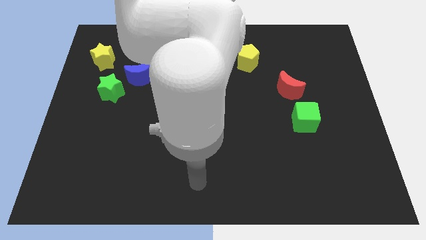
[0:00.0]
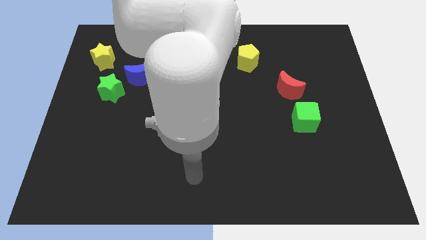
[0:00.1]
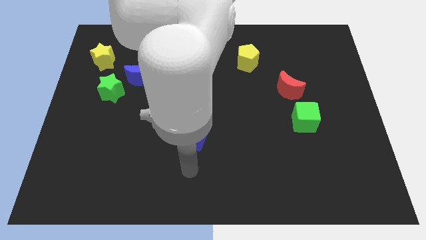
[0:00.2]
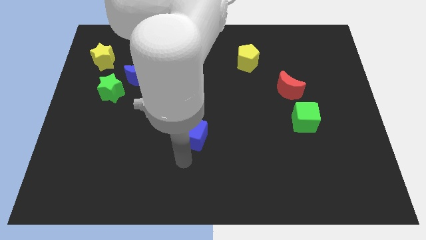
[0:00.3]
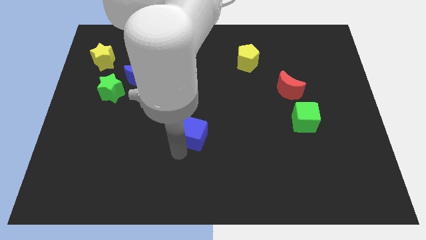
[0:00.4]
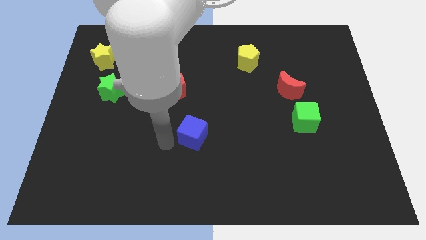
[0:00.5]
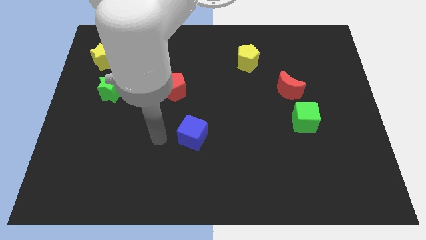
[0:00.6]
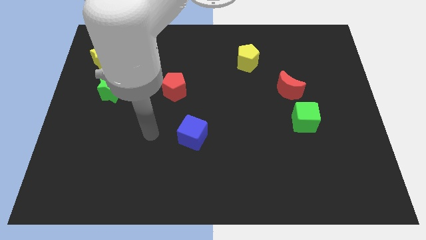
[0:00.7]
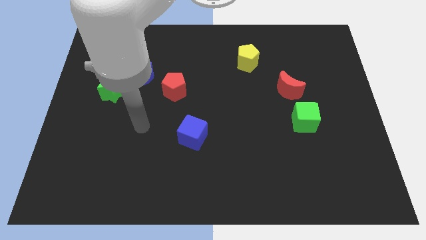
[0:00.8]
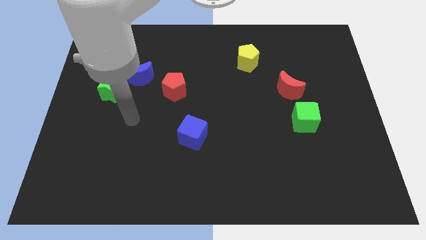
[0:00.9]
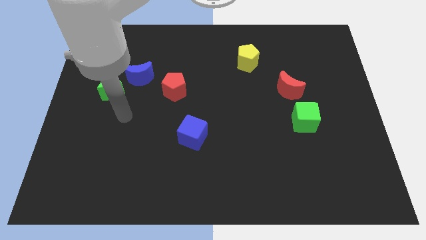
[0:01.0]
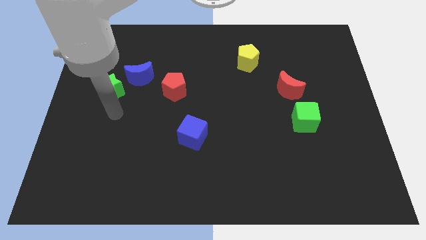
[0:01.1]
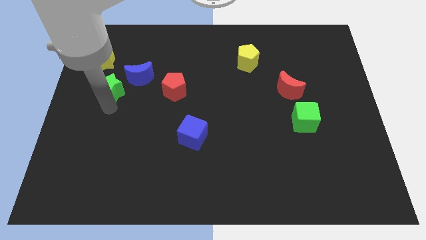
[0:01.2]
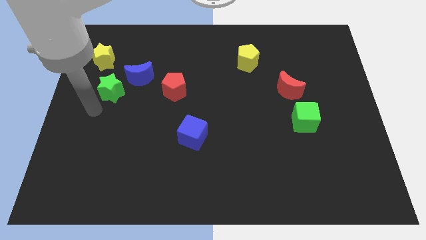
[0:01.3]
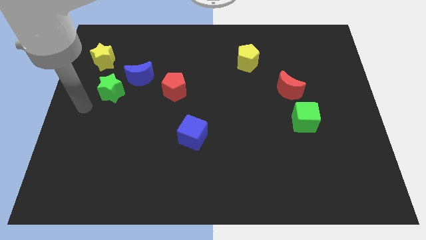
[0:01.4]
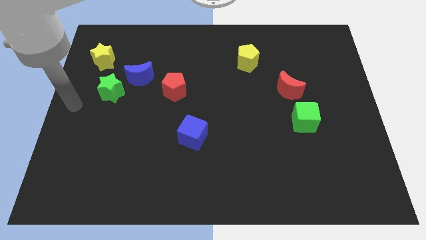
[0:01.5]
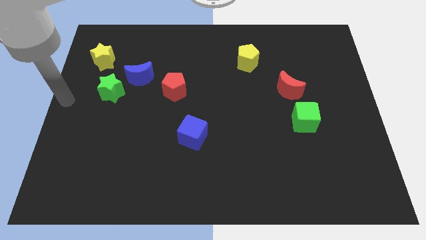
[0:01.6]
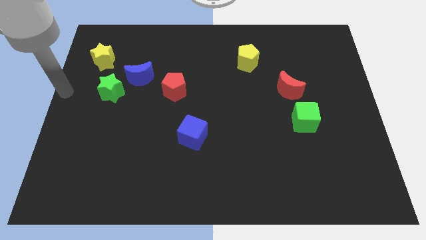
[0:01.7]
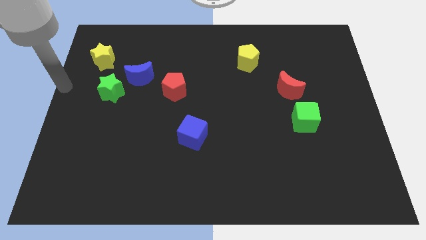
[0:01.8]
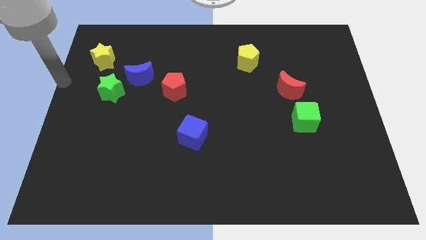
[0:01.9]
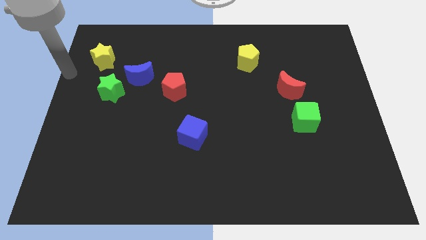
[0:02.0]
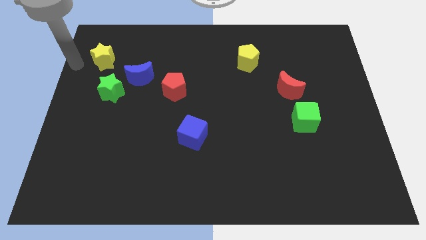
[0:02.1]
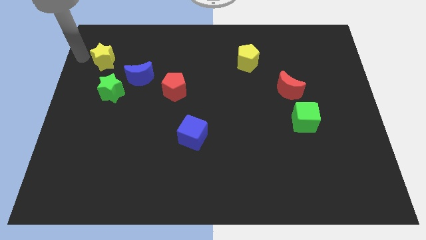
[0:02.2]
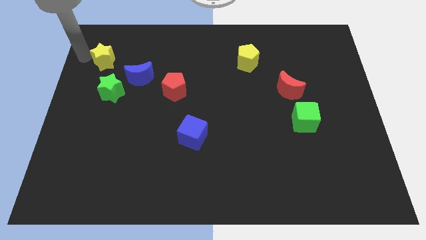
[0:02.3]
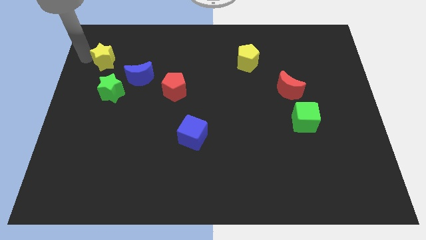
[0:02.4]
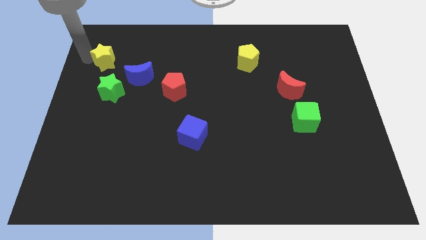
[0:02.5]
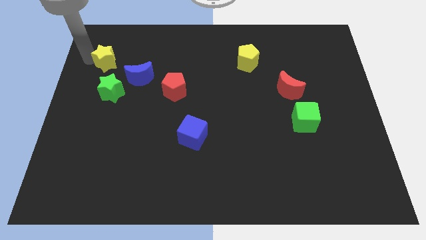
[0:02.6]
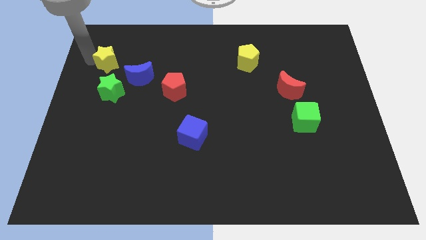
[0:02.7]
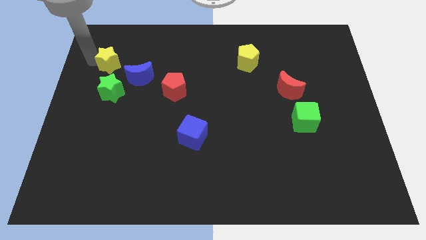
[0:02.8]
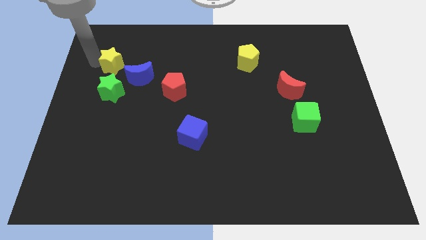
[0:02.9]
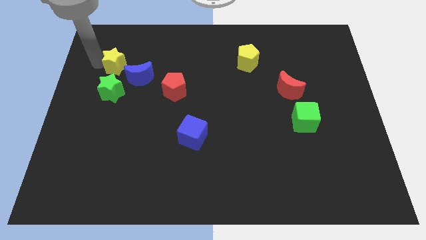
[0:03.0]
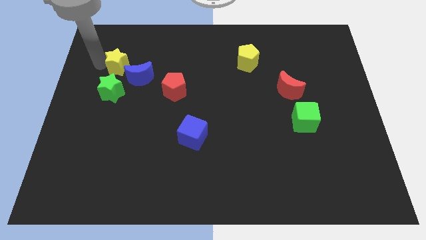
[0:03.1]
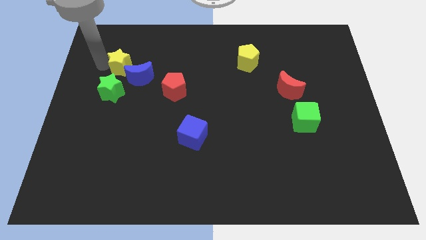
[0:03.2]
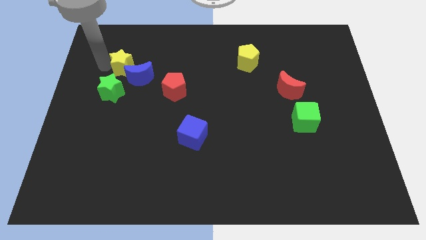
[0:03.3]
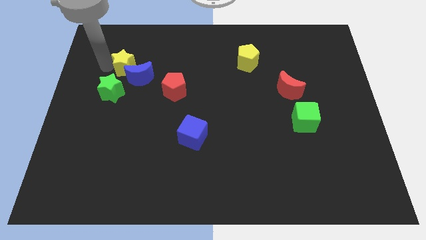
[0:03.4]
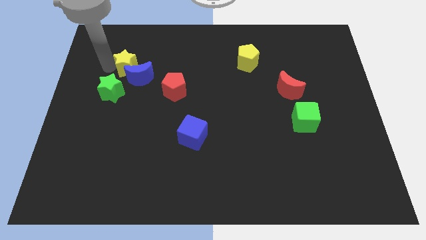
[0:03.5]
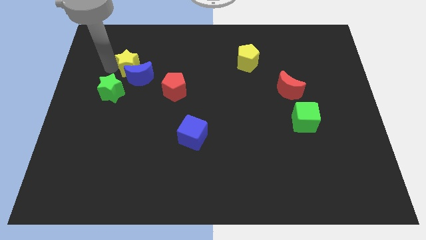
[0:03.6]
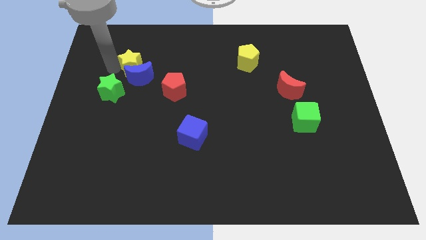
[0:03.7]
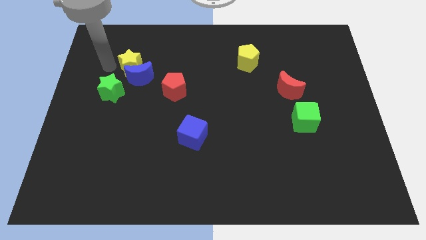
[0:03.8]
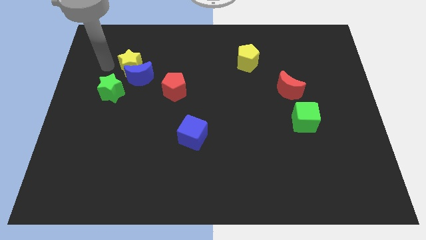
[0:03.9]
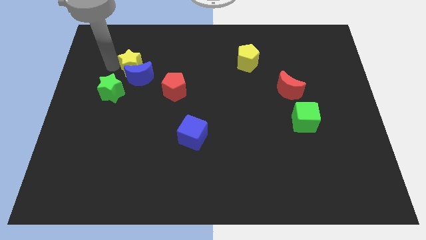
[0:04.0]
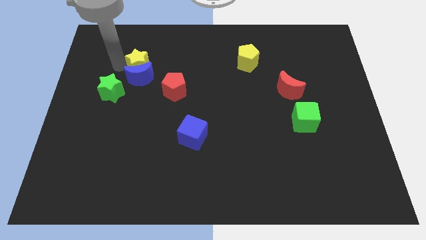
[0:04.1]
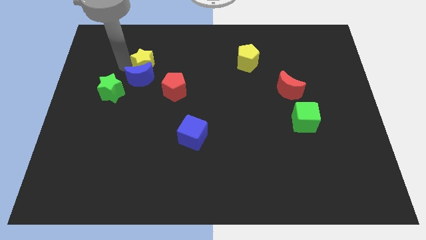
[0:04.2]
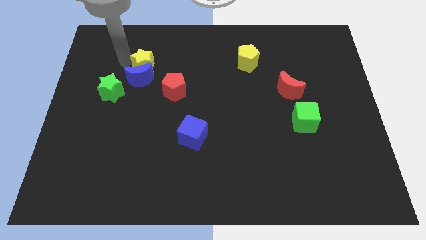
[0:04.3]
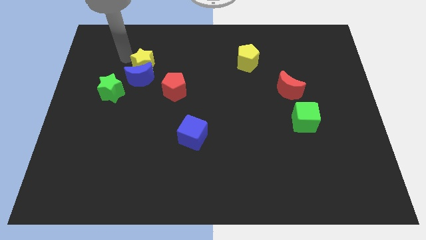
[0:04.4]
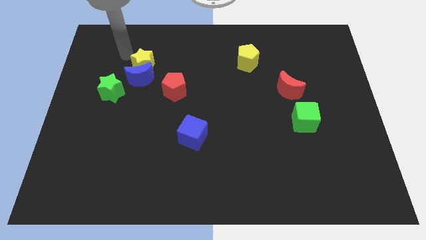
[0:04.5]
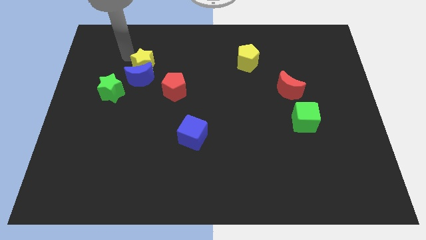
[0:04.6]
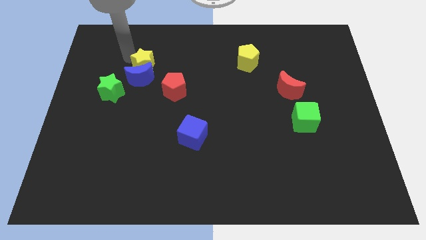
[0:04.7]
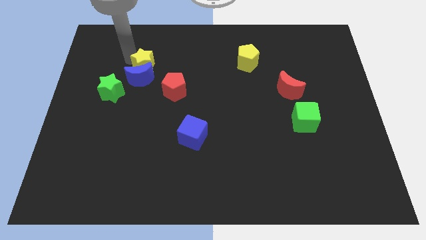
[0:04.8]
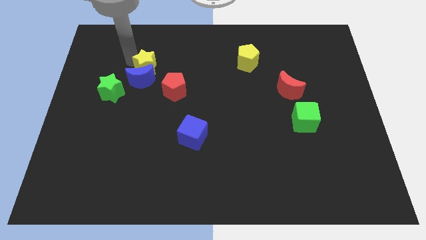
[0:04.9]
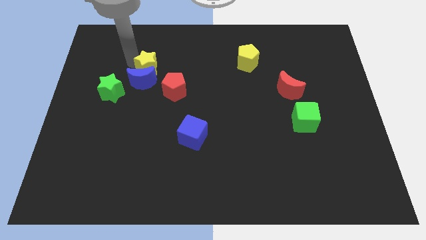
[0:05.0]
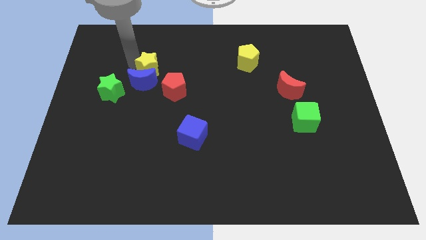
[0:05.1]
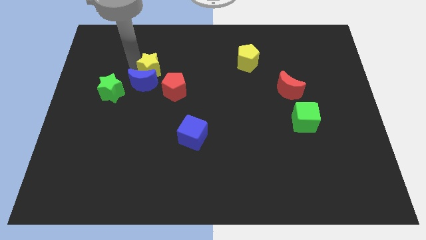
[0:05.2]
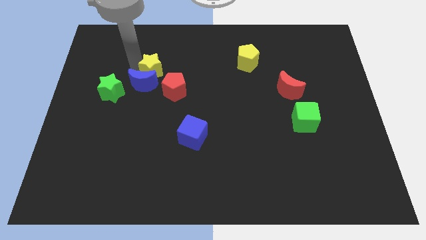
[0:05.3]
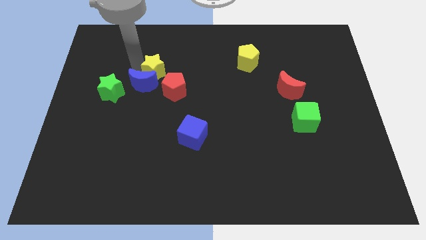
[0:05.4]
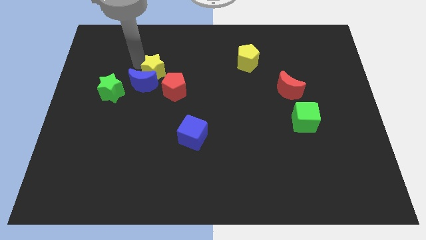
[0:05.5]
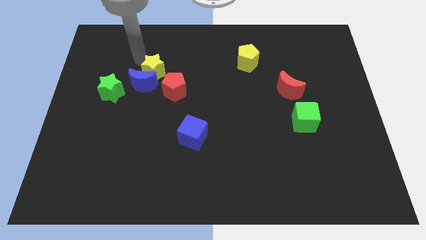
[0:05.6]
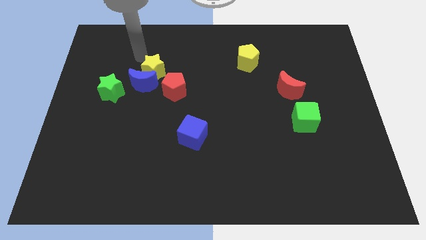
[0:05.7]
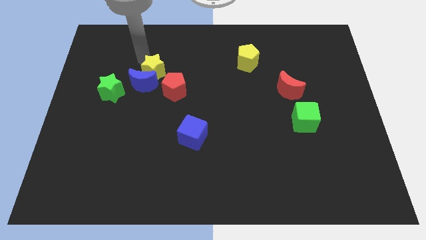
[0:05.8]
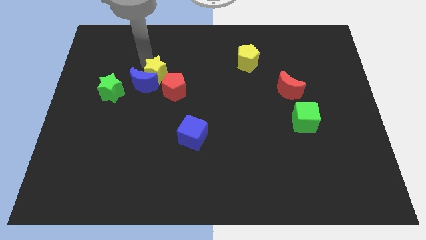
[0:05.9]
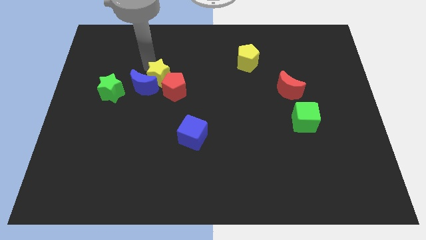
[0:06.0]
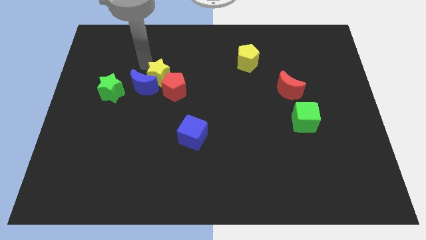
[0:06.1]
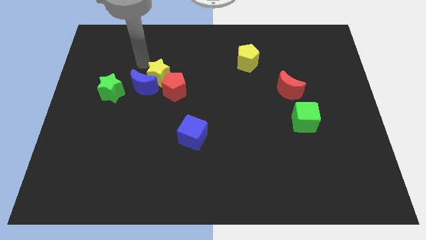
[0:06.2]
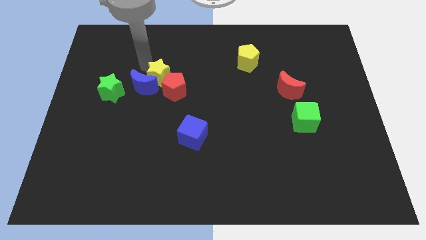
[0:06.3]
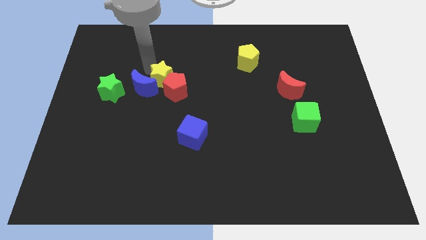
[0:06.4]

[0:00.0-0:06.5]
put the yellow star close to the red pentagon
